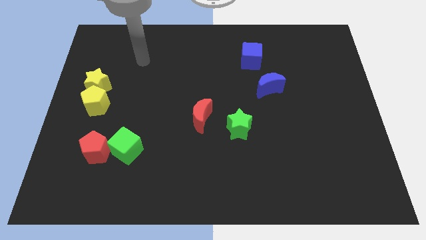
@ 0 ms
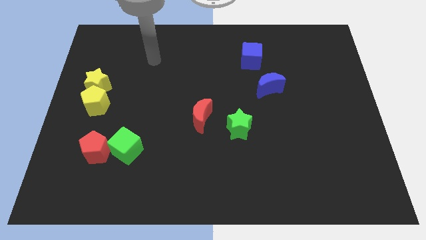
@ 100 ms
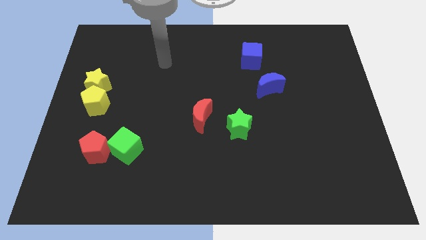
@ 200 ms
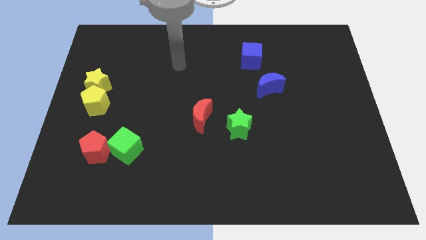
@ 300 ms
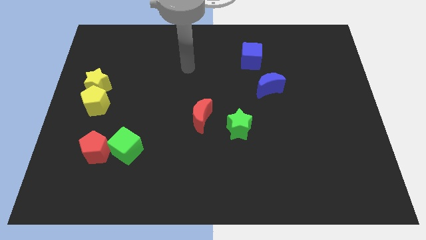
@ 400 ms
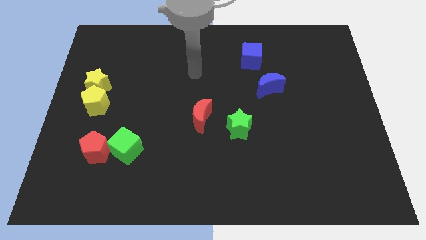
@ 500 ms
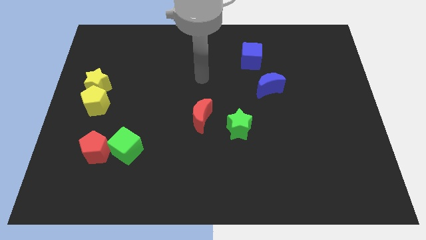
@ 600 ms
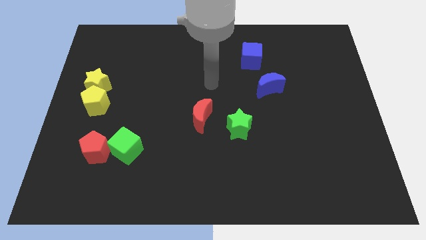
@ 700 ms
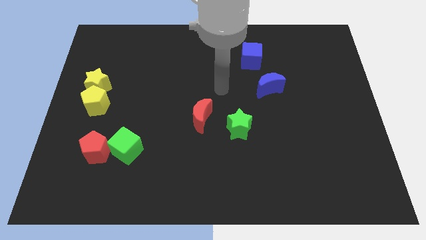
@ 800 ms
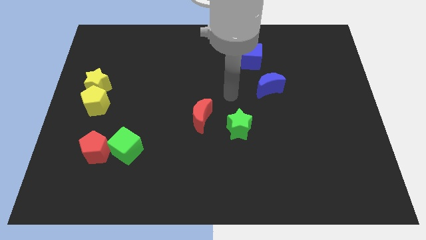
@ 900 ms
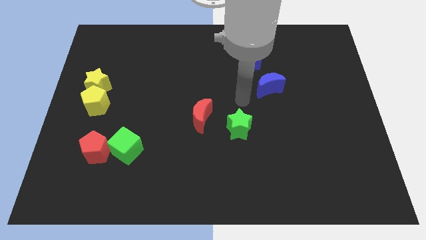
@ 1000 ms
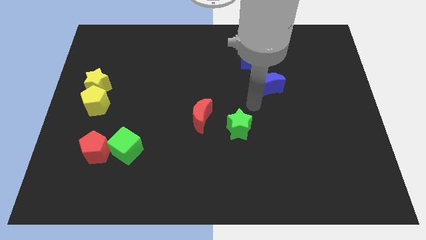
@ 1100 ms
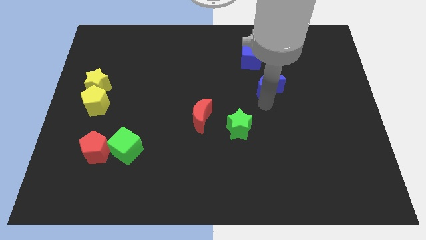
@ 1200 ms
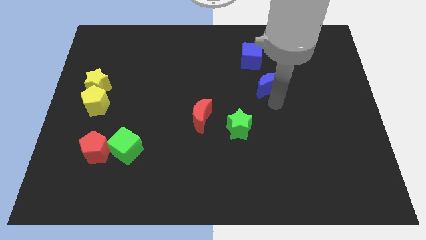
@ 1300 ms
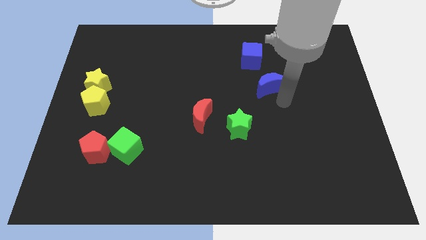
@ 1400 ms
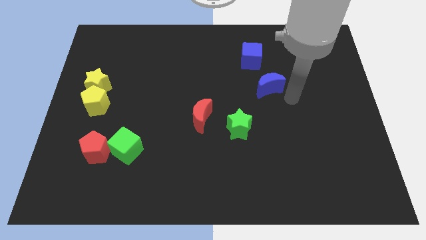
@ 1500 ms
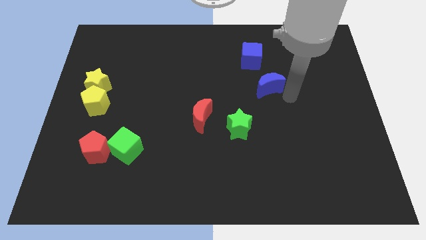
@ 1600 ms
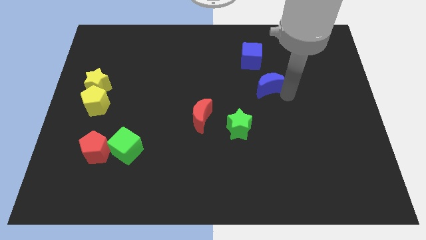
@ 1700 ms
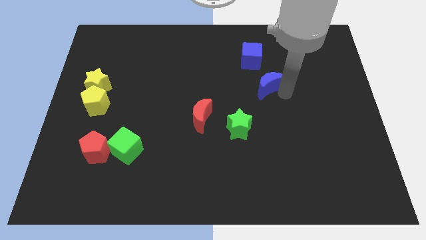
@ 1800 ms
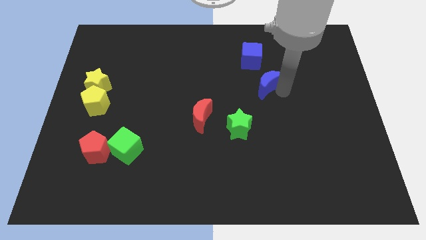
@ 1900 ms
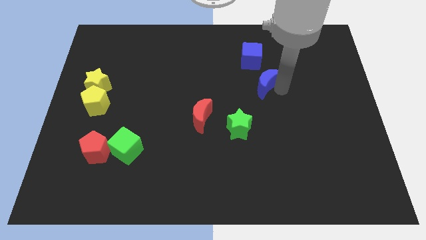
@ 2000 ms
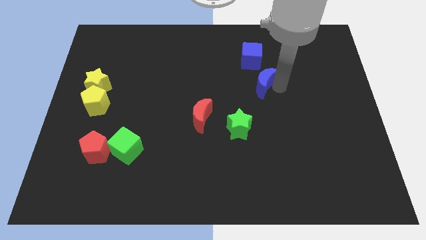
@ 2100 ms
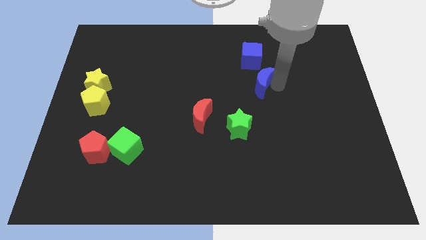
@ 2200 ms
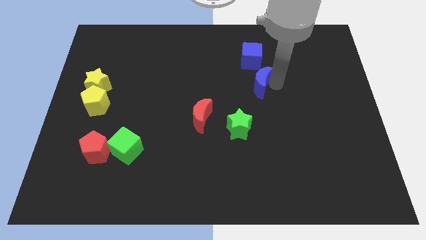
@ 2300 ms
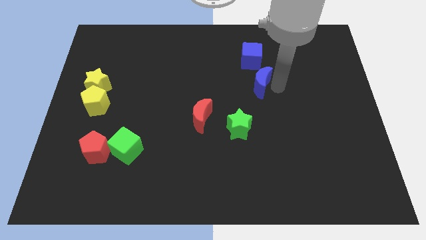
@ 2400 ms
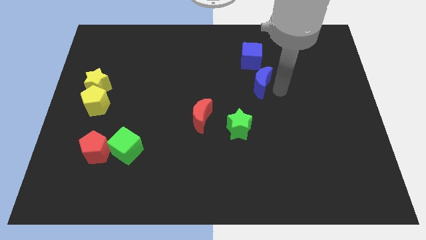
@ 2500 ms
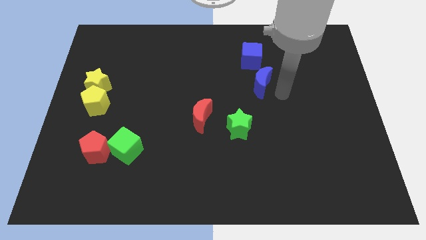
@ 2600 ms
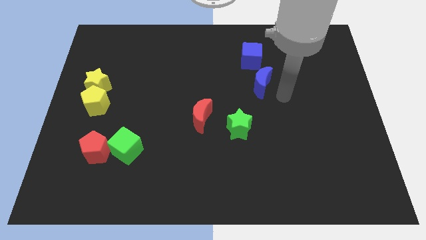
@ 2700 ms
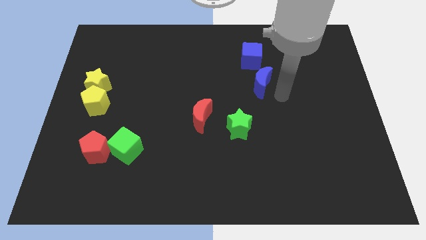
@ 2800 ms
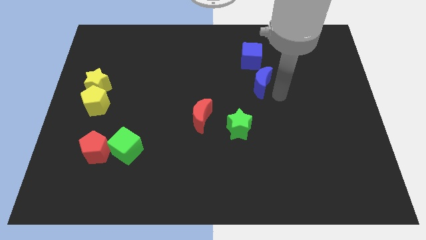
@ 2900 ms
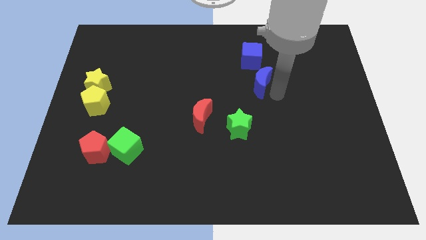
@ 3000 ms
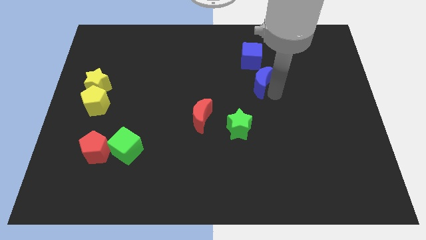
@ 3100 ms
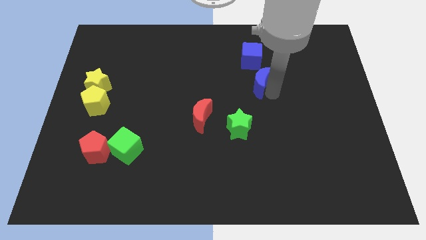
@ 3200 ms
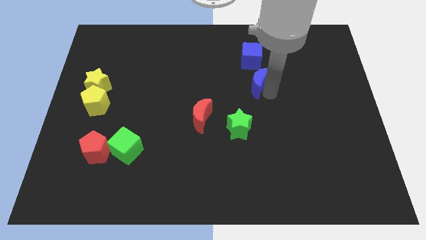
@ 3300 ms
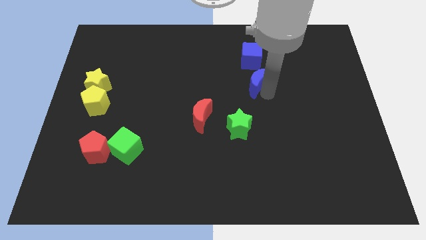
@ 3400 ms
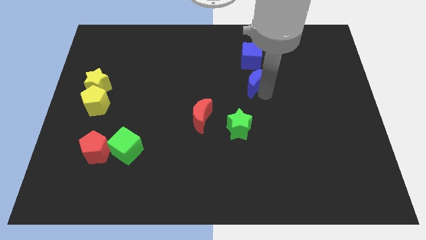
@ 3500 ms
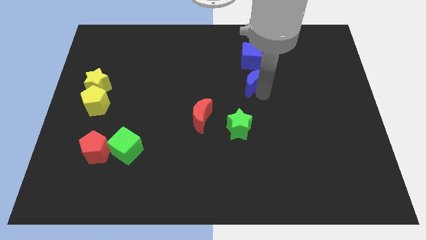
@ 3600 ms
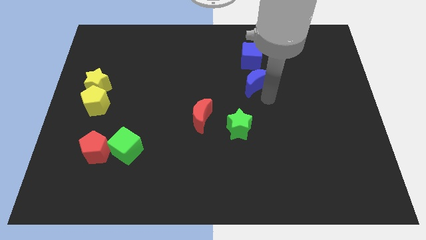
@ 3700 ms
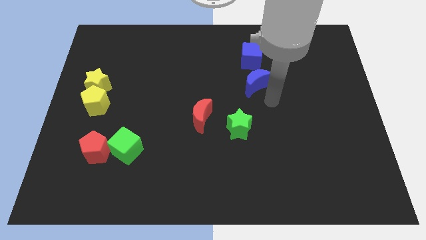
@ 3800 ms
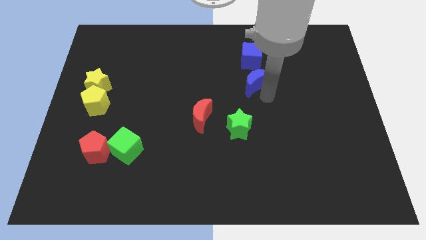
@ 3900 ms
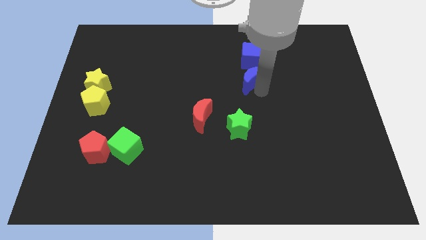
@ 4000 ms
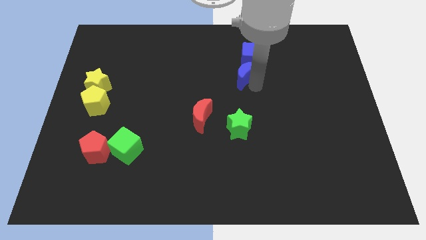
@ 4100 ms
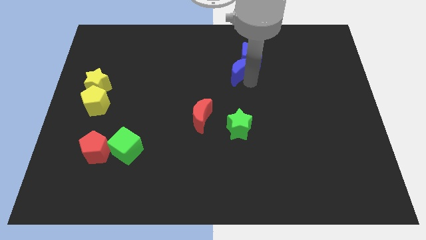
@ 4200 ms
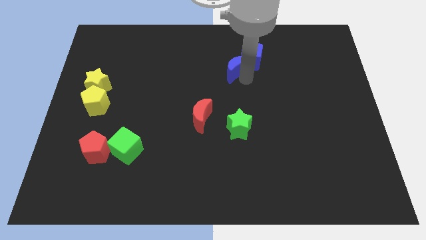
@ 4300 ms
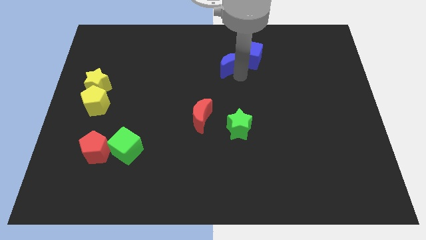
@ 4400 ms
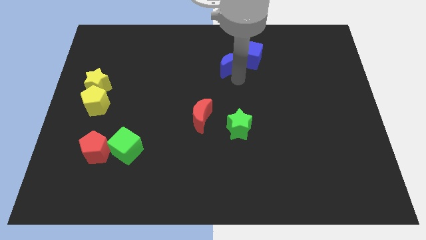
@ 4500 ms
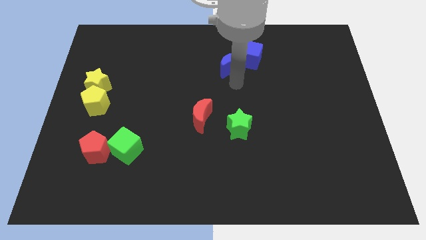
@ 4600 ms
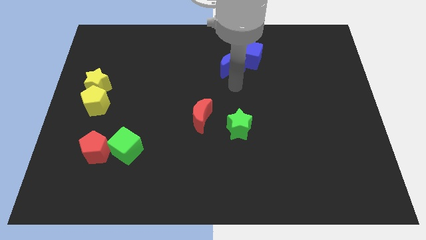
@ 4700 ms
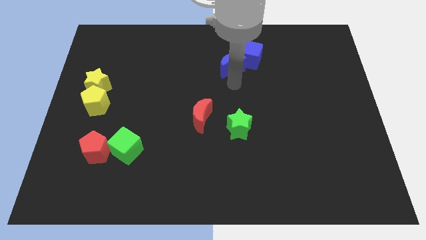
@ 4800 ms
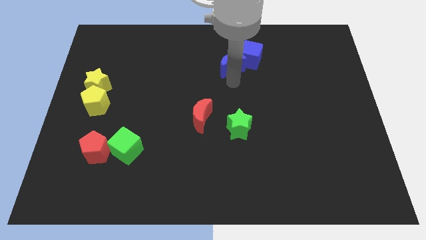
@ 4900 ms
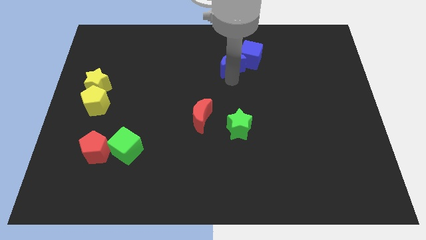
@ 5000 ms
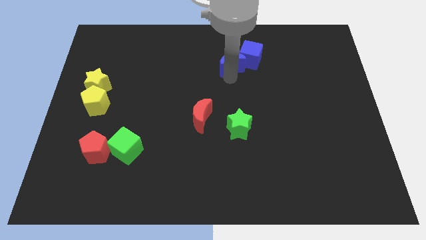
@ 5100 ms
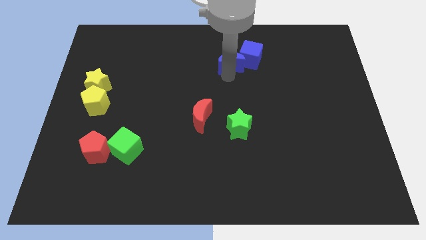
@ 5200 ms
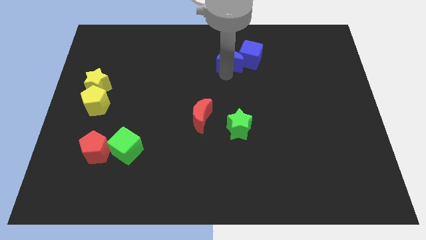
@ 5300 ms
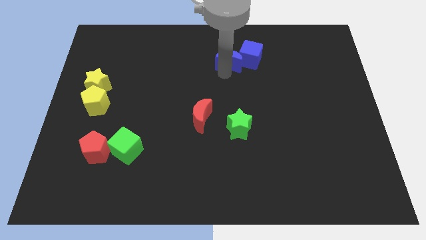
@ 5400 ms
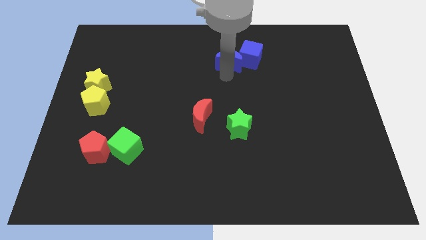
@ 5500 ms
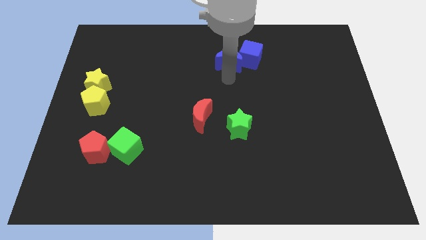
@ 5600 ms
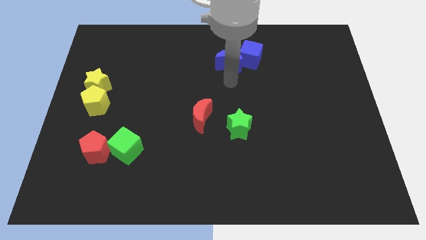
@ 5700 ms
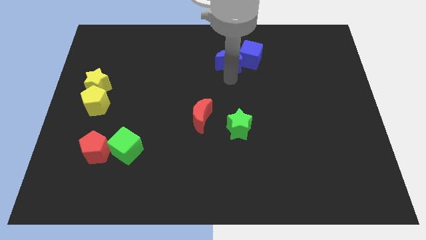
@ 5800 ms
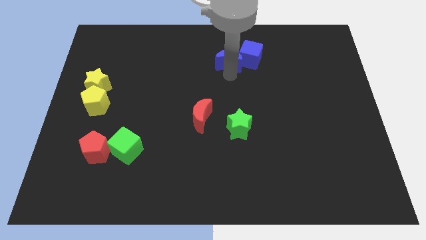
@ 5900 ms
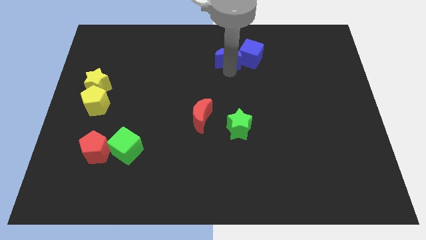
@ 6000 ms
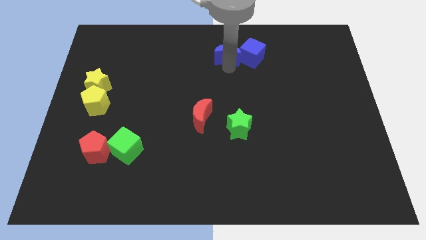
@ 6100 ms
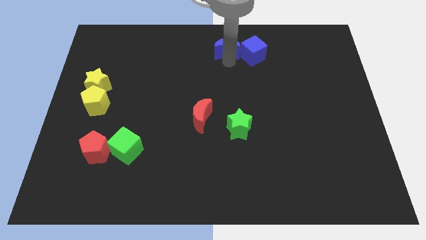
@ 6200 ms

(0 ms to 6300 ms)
put the blue moon to the towards your base

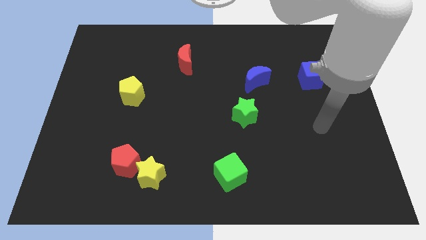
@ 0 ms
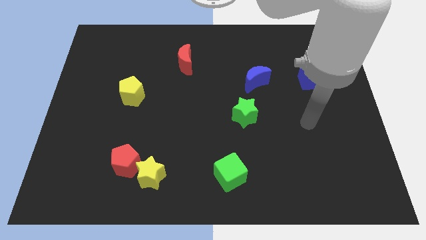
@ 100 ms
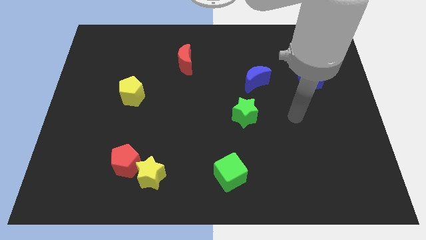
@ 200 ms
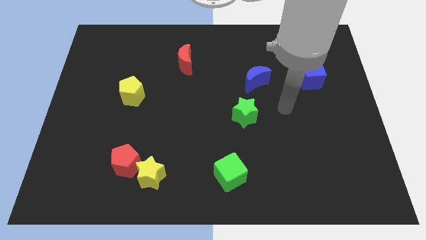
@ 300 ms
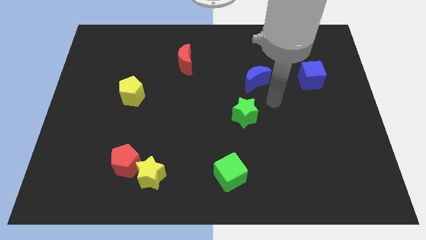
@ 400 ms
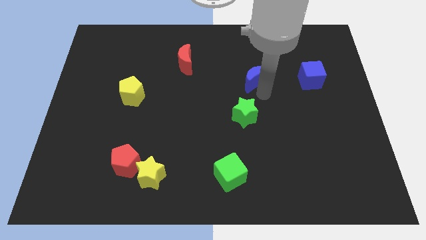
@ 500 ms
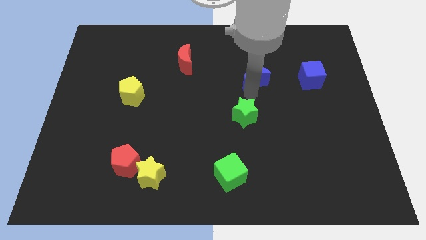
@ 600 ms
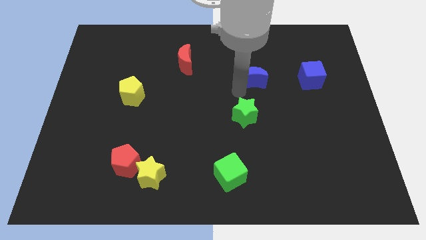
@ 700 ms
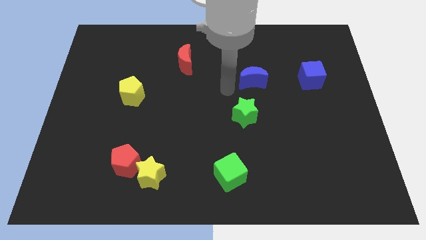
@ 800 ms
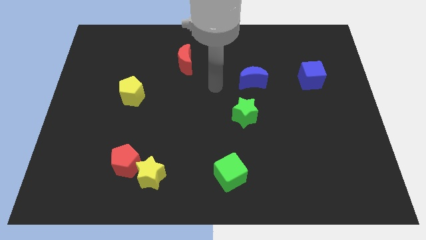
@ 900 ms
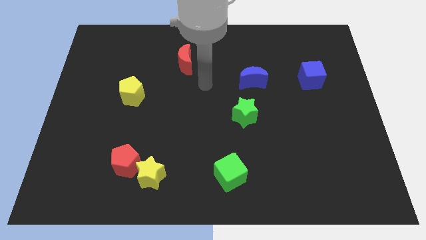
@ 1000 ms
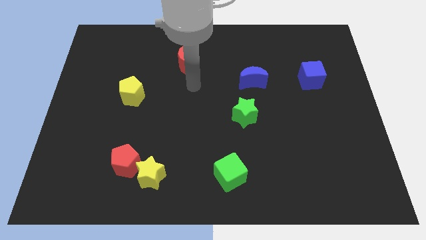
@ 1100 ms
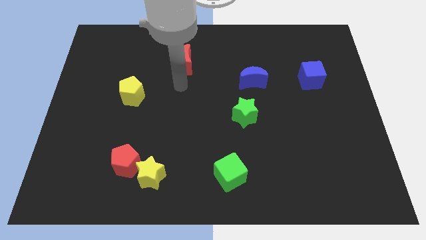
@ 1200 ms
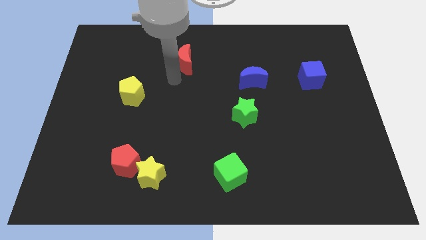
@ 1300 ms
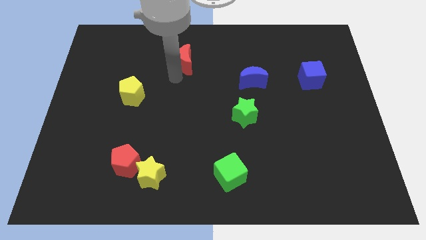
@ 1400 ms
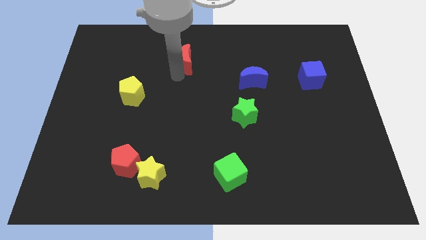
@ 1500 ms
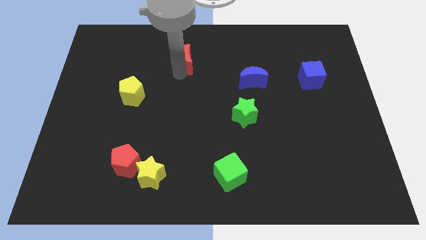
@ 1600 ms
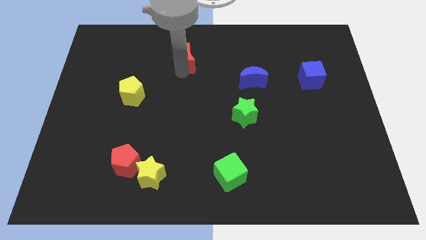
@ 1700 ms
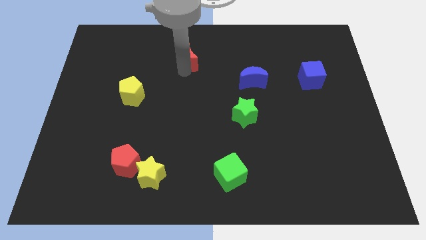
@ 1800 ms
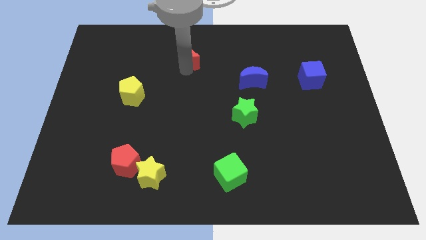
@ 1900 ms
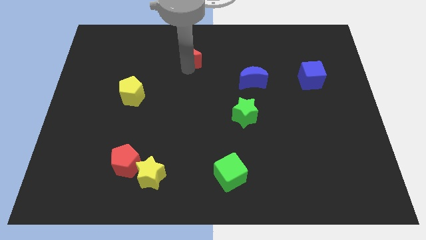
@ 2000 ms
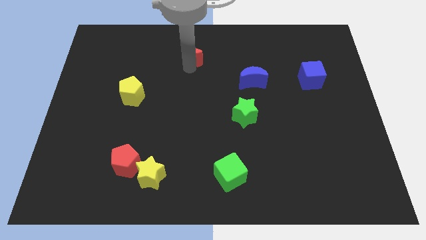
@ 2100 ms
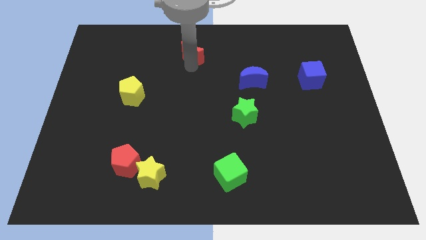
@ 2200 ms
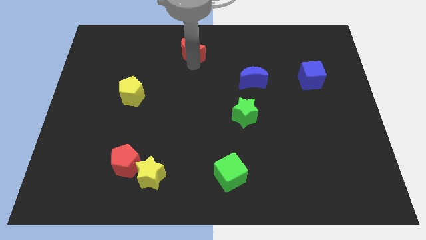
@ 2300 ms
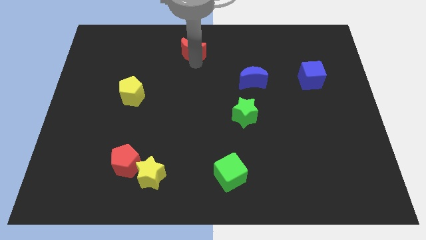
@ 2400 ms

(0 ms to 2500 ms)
move the red moon to the towards your base
